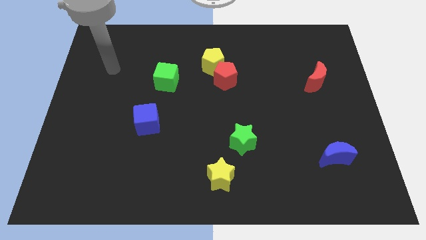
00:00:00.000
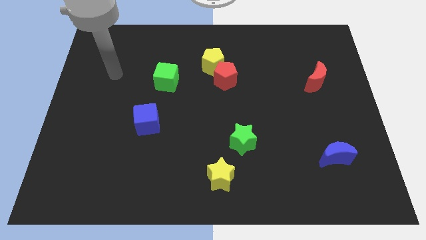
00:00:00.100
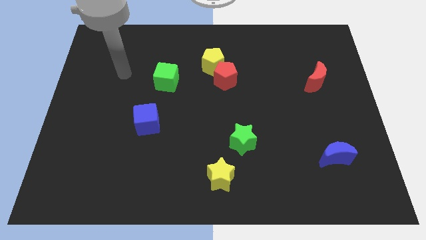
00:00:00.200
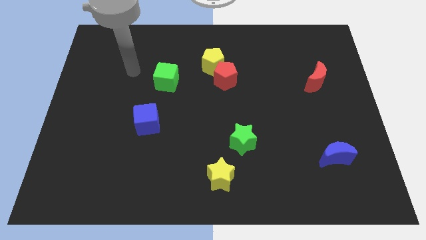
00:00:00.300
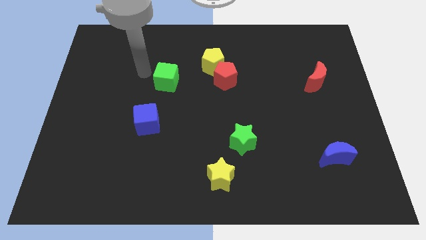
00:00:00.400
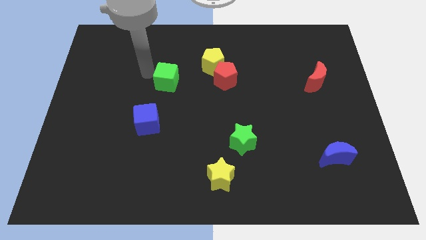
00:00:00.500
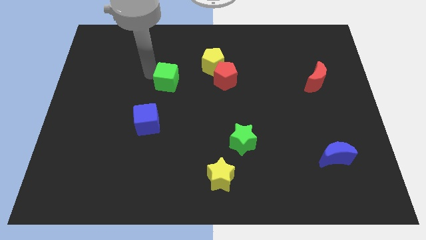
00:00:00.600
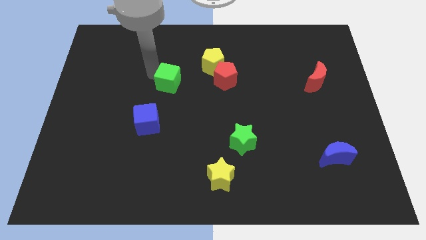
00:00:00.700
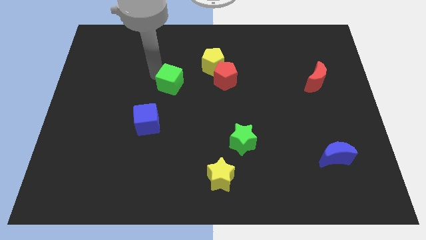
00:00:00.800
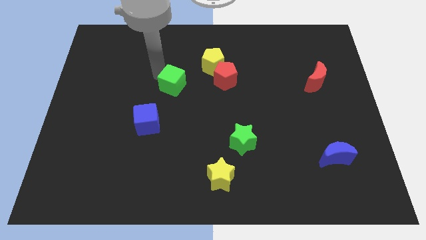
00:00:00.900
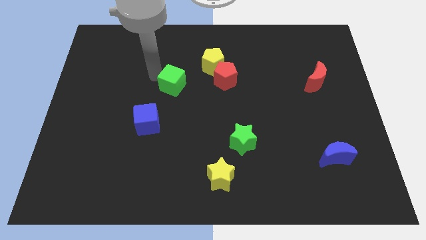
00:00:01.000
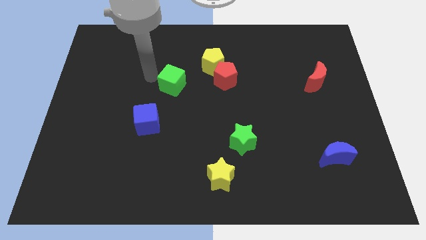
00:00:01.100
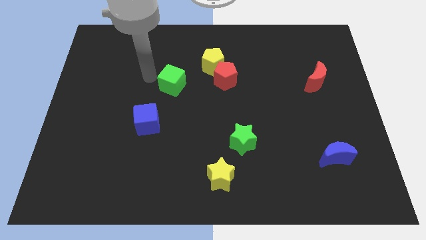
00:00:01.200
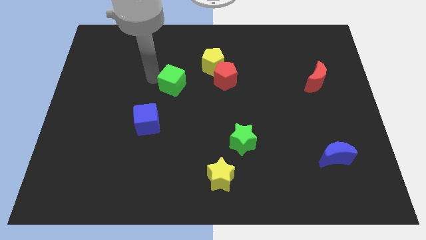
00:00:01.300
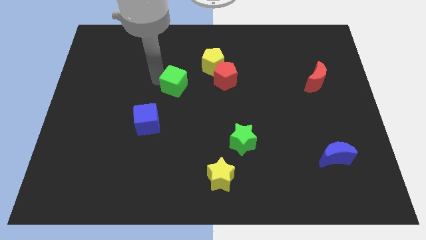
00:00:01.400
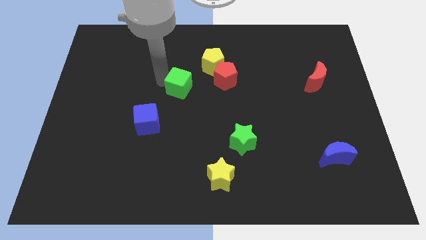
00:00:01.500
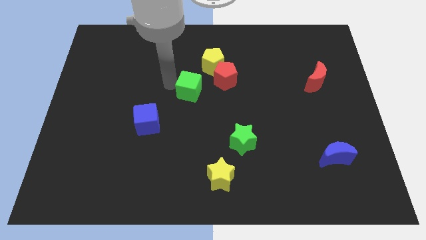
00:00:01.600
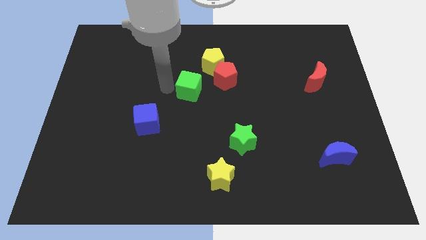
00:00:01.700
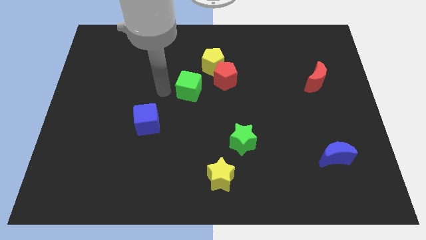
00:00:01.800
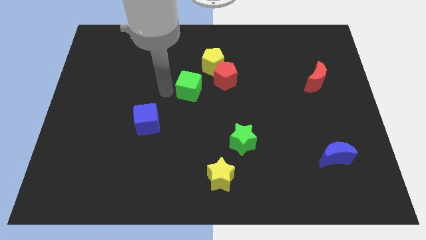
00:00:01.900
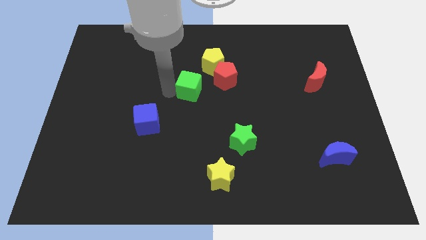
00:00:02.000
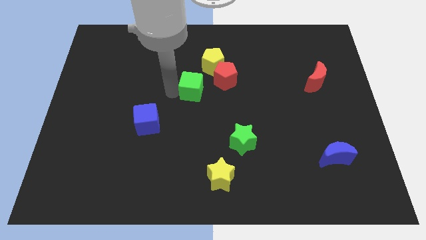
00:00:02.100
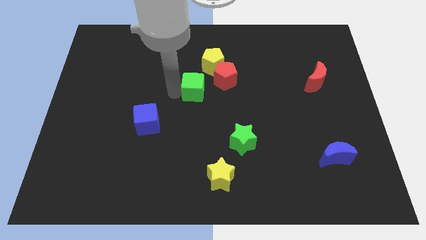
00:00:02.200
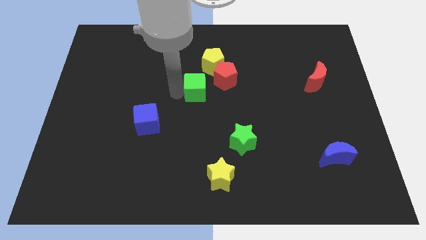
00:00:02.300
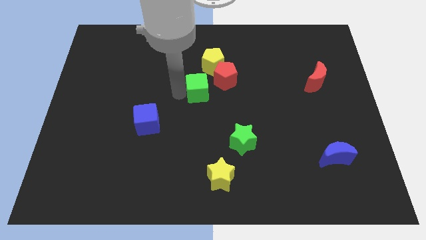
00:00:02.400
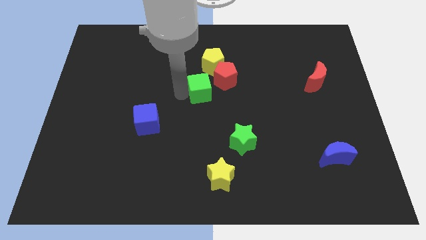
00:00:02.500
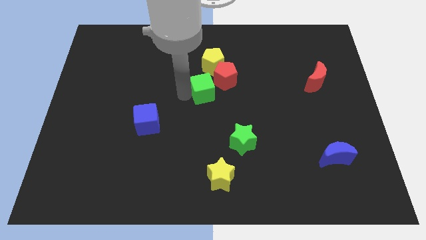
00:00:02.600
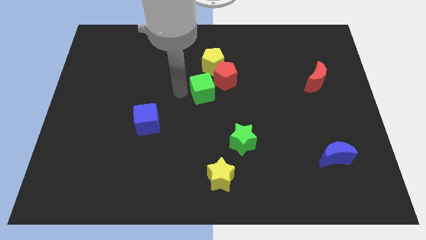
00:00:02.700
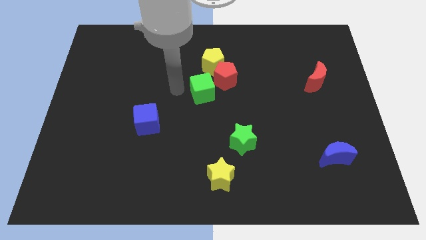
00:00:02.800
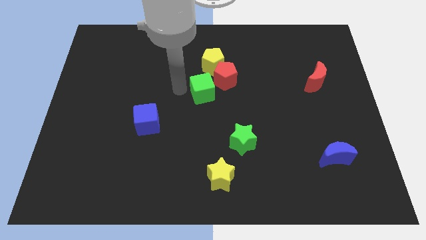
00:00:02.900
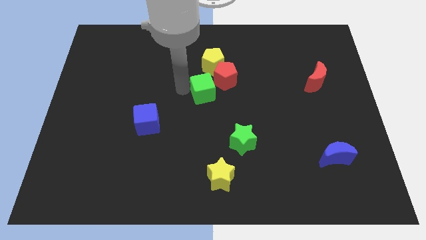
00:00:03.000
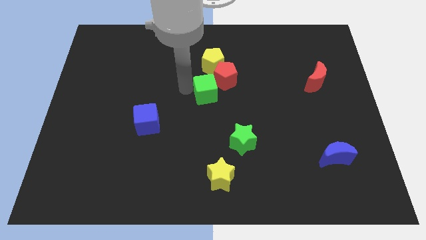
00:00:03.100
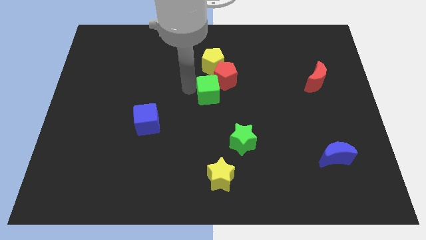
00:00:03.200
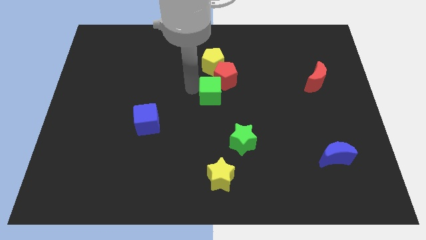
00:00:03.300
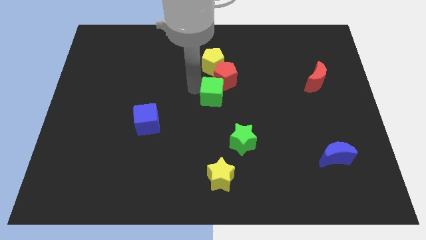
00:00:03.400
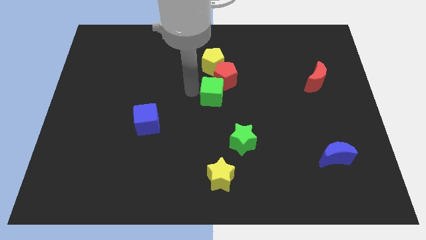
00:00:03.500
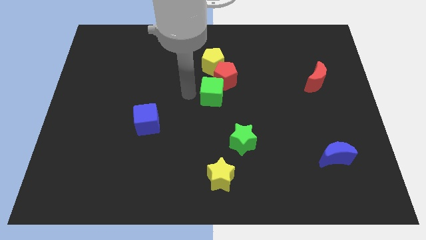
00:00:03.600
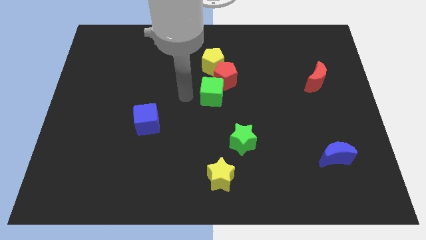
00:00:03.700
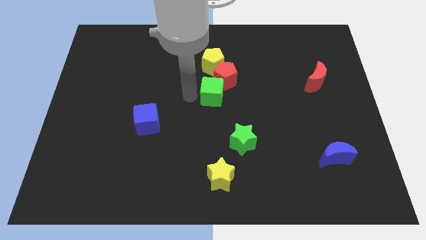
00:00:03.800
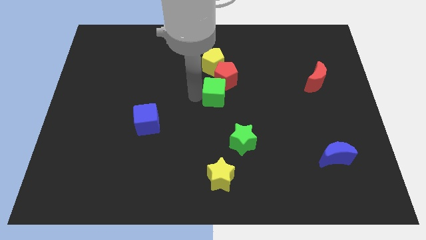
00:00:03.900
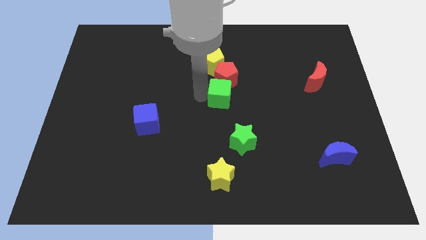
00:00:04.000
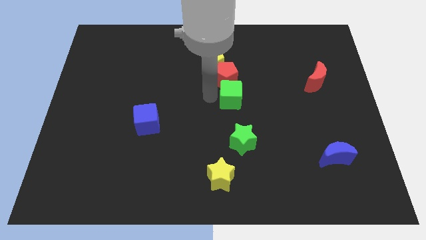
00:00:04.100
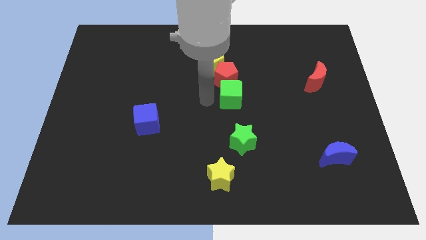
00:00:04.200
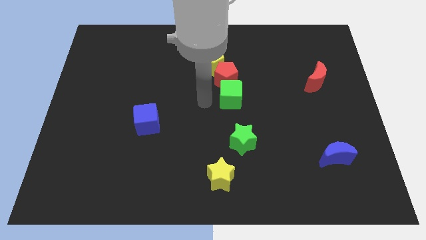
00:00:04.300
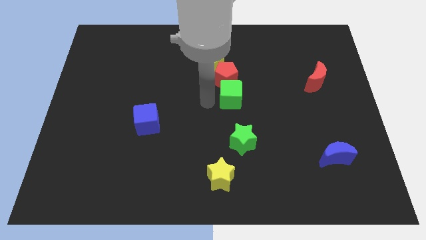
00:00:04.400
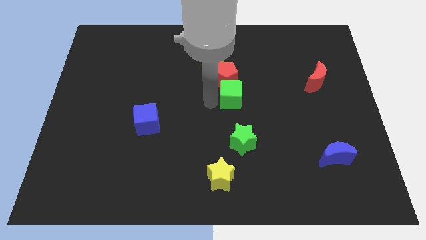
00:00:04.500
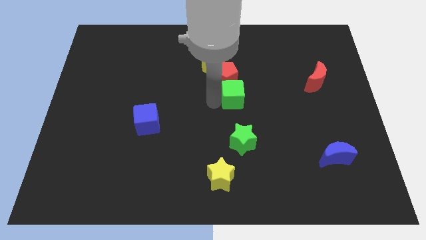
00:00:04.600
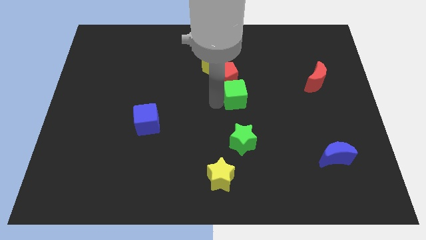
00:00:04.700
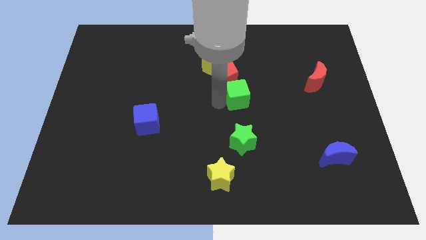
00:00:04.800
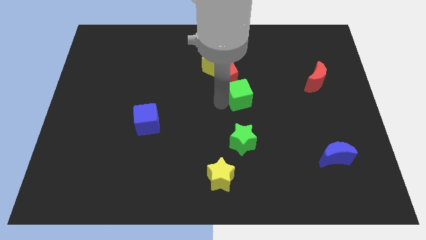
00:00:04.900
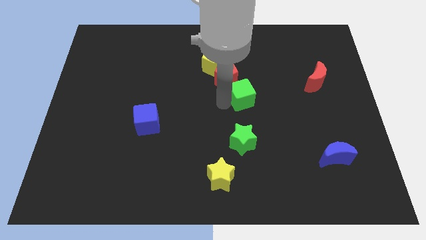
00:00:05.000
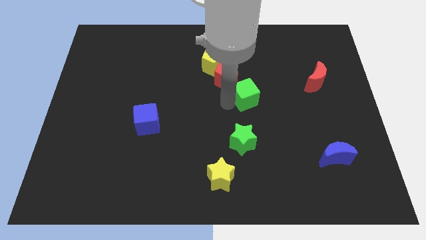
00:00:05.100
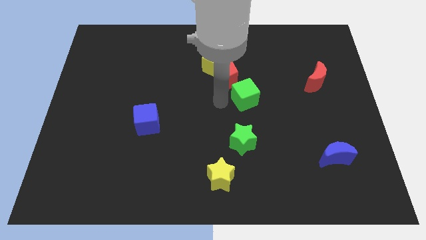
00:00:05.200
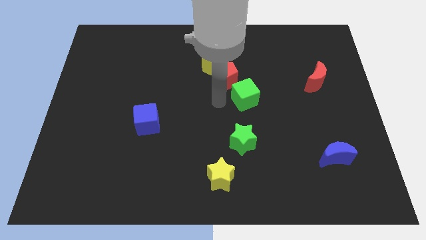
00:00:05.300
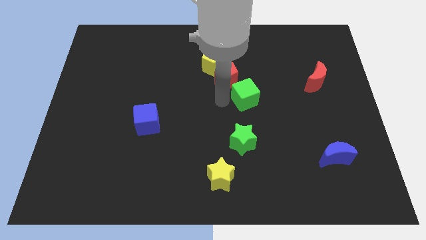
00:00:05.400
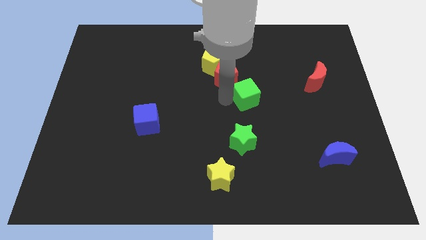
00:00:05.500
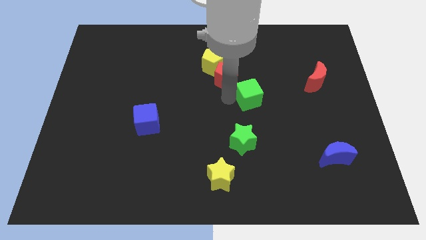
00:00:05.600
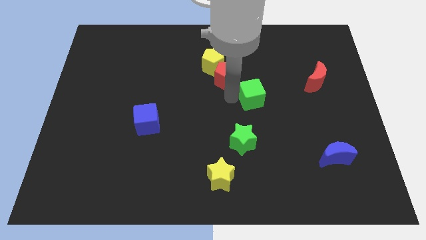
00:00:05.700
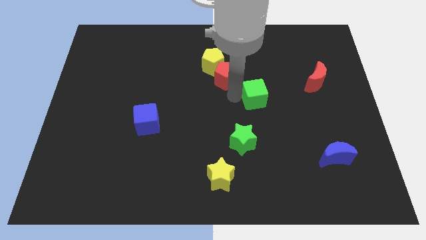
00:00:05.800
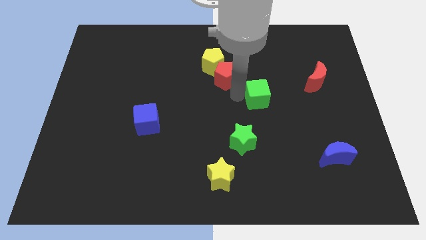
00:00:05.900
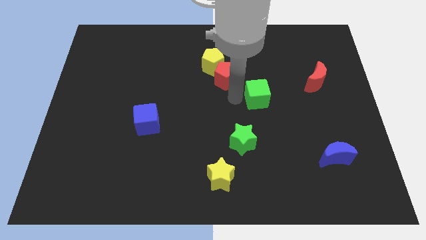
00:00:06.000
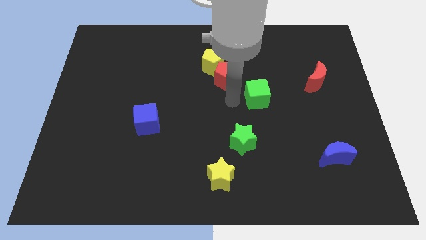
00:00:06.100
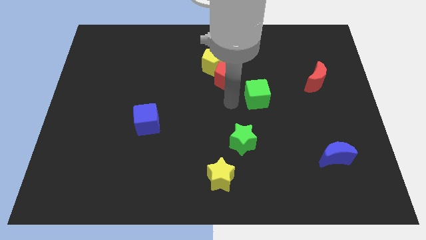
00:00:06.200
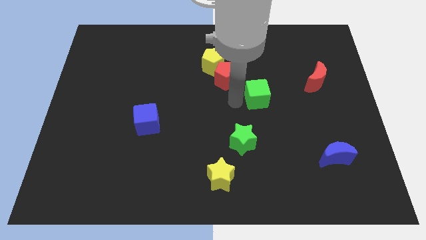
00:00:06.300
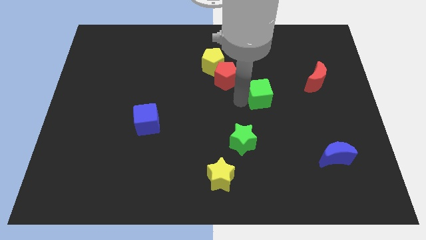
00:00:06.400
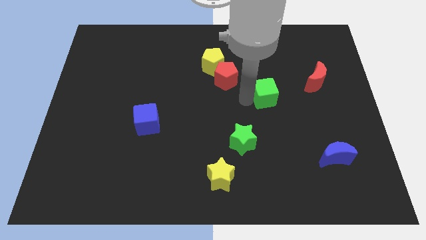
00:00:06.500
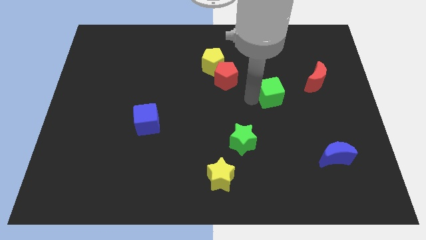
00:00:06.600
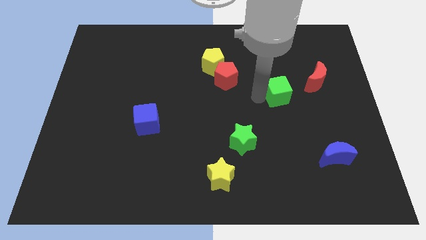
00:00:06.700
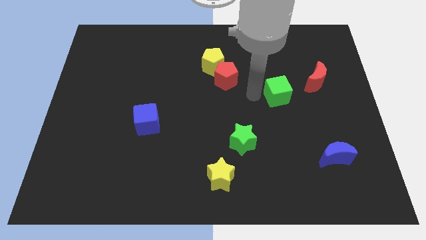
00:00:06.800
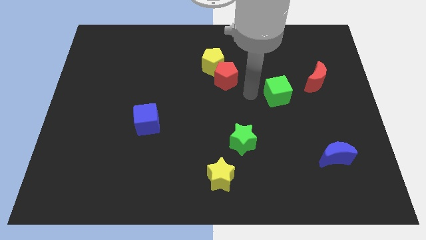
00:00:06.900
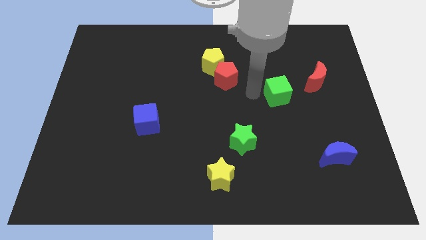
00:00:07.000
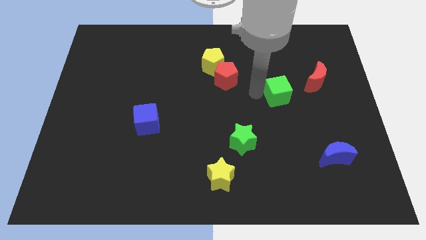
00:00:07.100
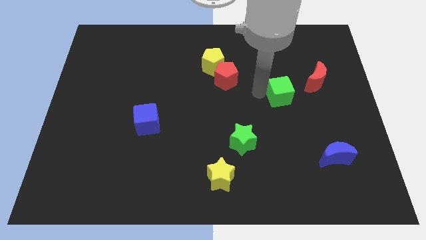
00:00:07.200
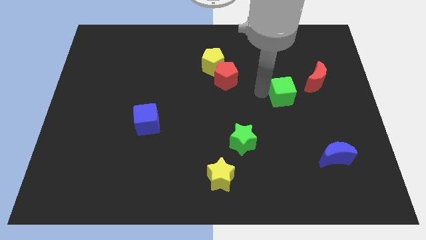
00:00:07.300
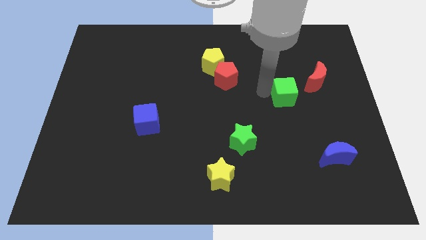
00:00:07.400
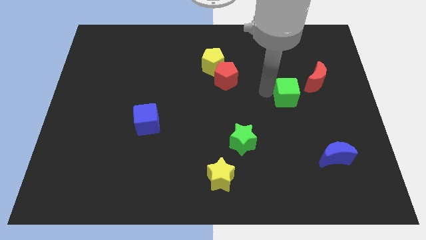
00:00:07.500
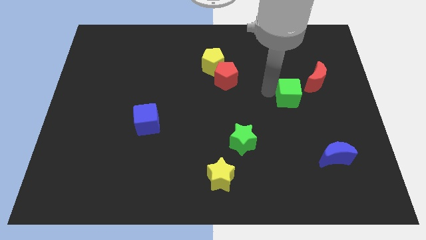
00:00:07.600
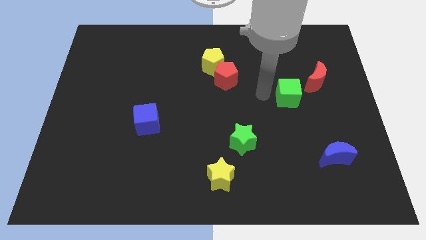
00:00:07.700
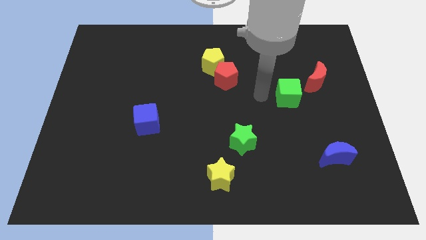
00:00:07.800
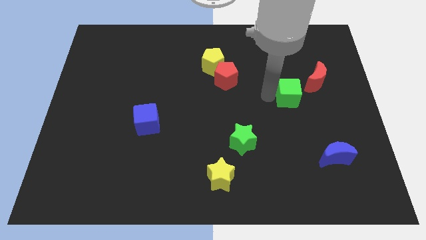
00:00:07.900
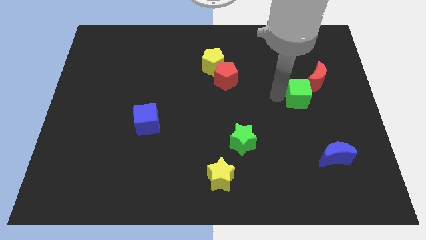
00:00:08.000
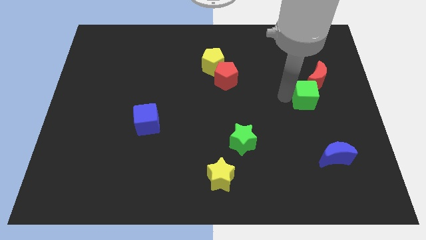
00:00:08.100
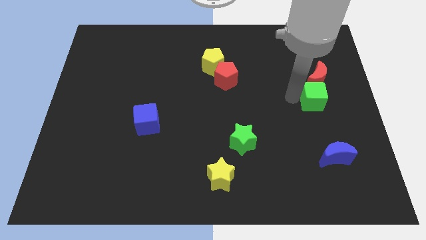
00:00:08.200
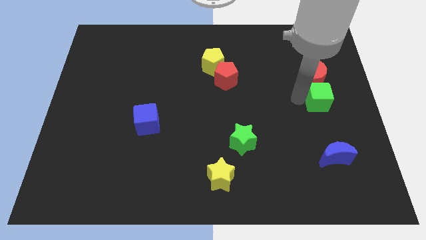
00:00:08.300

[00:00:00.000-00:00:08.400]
put the green cube to the right side
